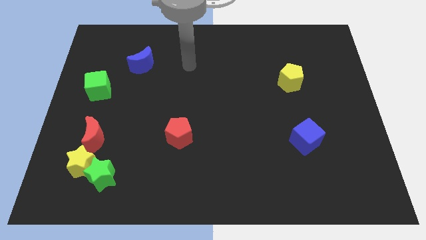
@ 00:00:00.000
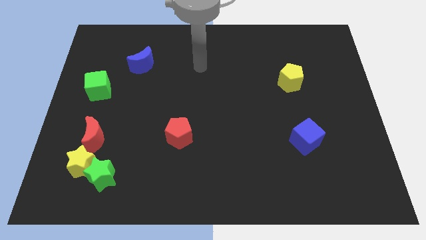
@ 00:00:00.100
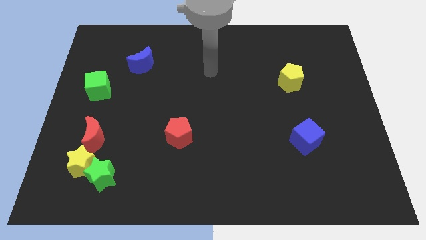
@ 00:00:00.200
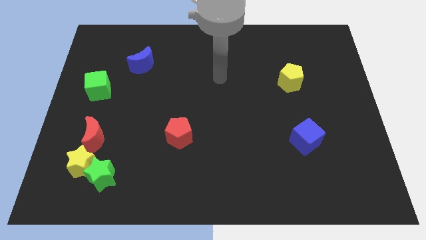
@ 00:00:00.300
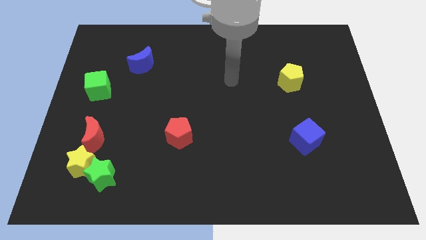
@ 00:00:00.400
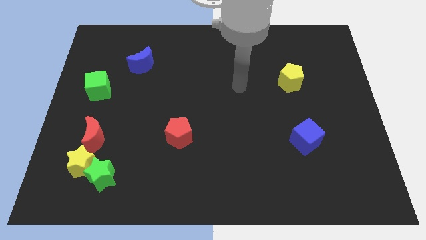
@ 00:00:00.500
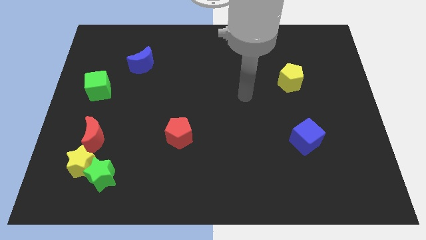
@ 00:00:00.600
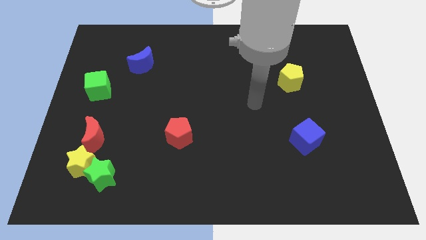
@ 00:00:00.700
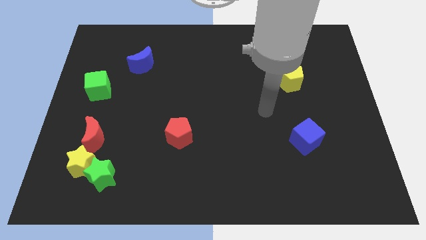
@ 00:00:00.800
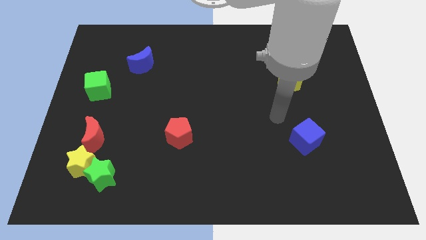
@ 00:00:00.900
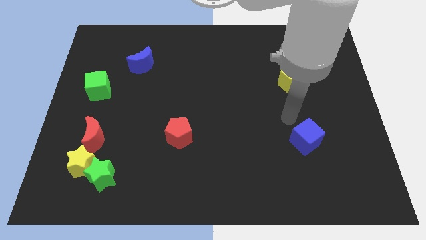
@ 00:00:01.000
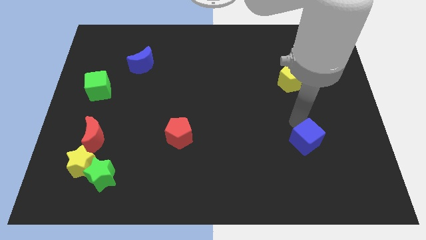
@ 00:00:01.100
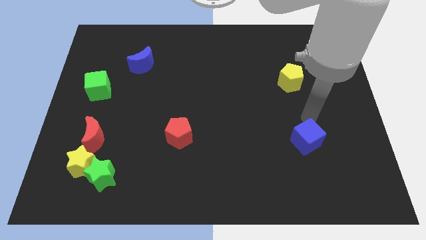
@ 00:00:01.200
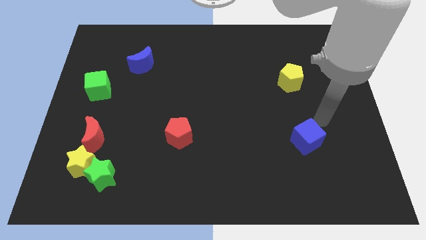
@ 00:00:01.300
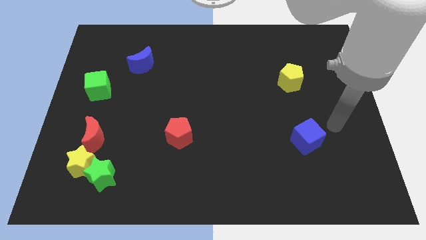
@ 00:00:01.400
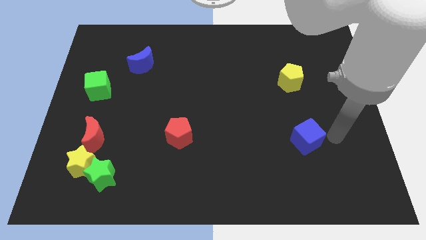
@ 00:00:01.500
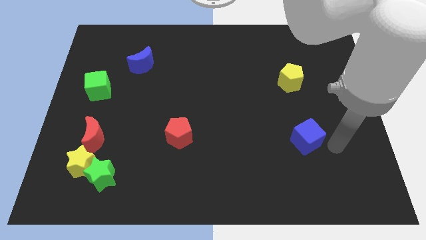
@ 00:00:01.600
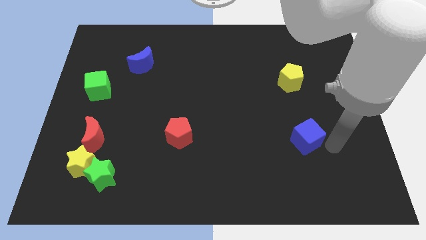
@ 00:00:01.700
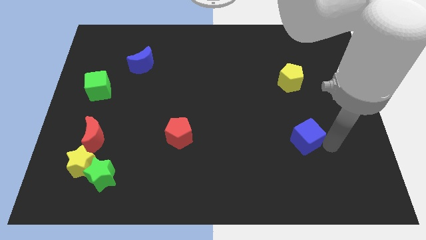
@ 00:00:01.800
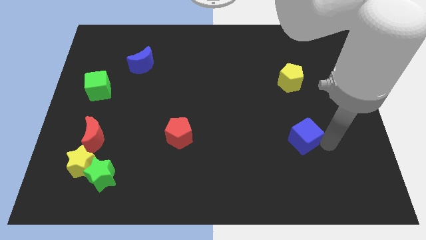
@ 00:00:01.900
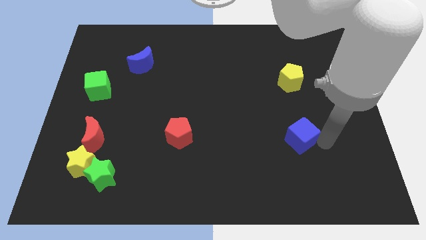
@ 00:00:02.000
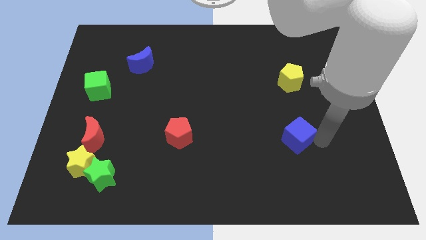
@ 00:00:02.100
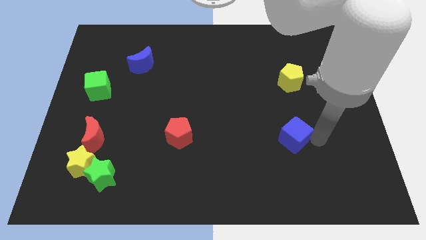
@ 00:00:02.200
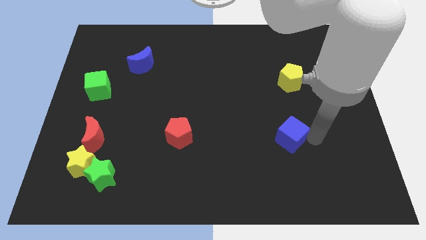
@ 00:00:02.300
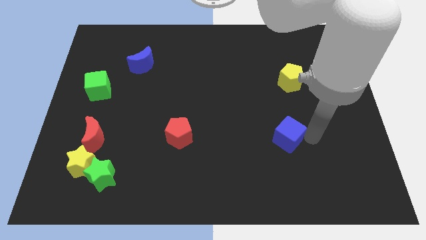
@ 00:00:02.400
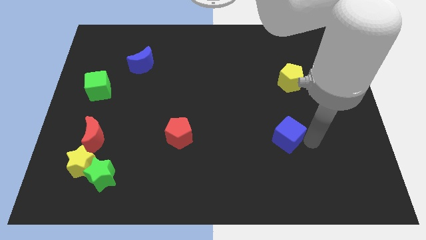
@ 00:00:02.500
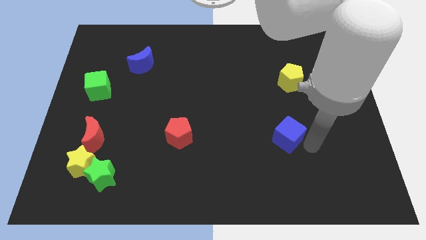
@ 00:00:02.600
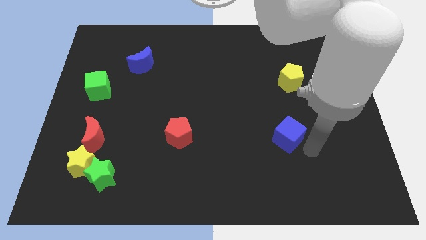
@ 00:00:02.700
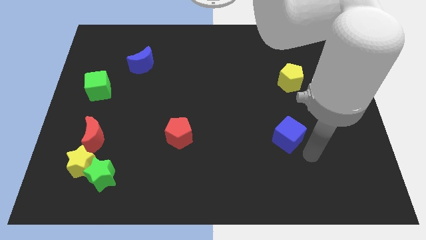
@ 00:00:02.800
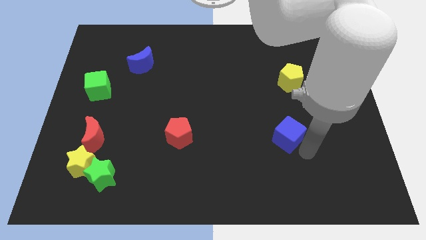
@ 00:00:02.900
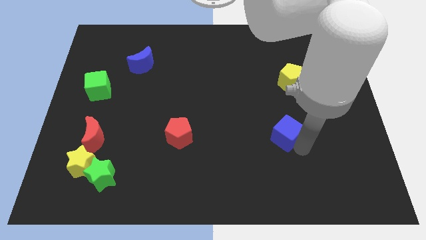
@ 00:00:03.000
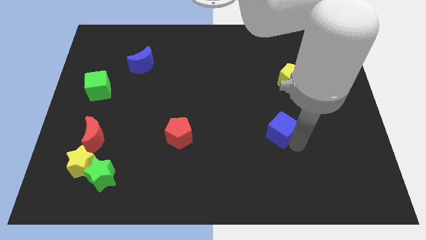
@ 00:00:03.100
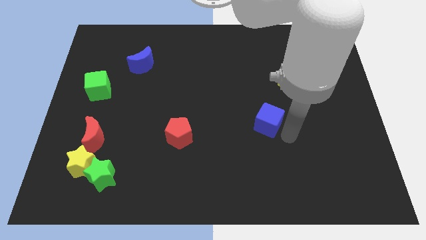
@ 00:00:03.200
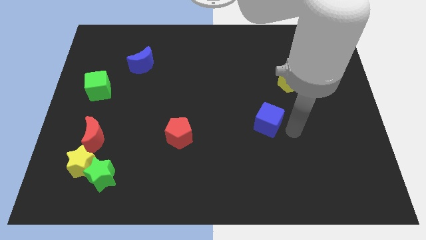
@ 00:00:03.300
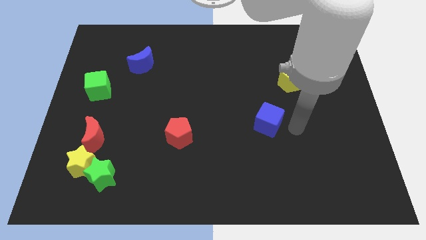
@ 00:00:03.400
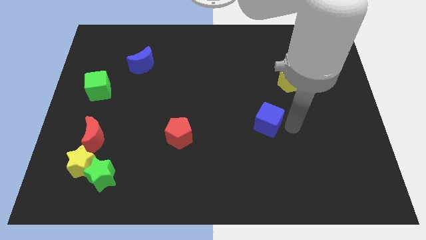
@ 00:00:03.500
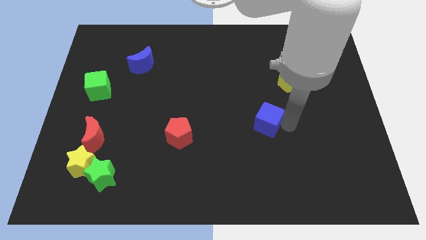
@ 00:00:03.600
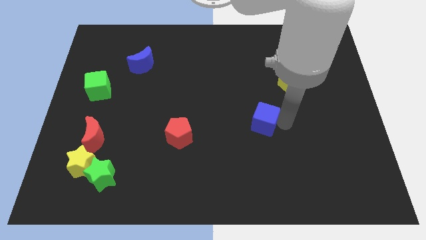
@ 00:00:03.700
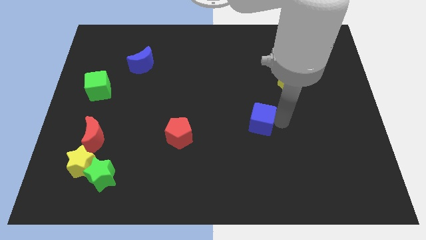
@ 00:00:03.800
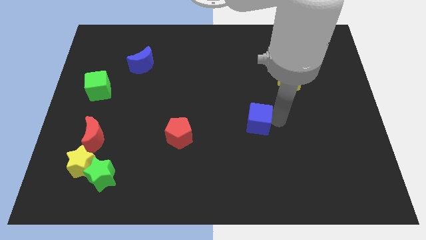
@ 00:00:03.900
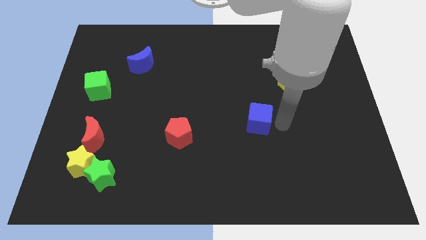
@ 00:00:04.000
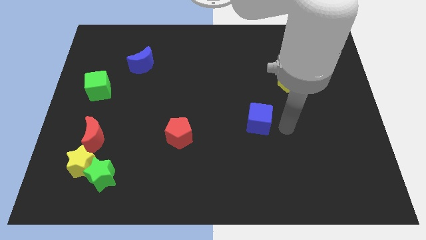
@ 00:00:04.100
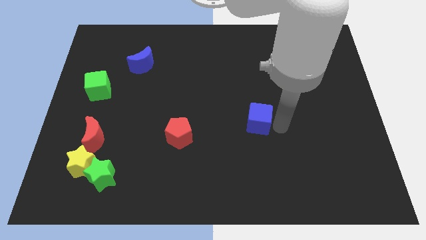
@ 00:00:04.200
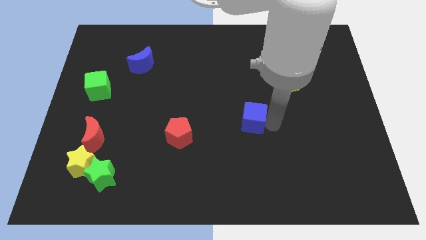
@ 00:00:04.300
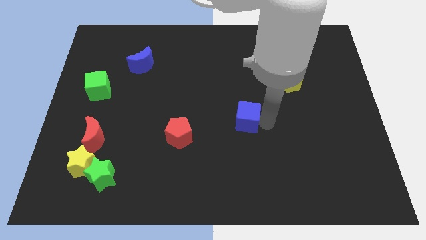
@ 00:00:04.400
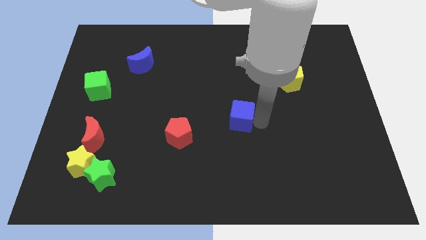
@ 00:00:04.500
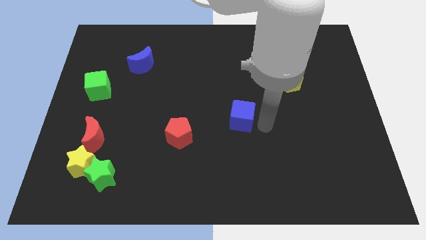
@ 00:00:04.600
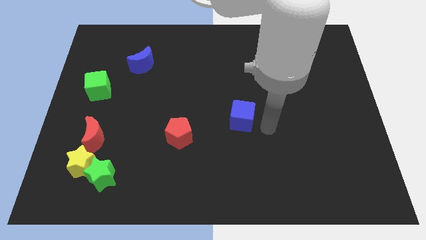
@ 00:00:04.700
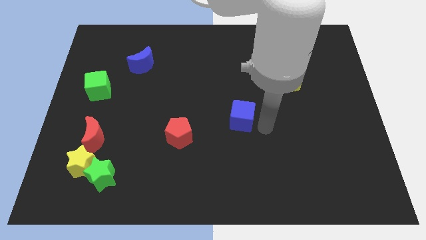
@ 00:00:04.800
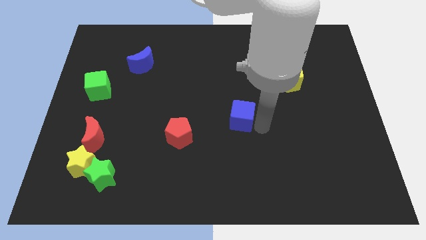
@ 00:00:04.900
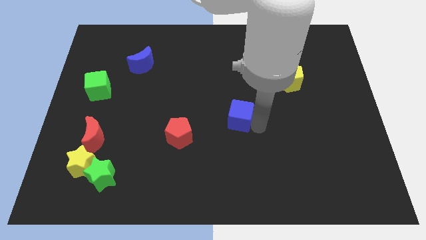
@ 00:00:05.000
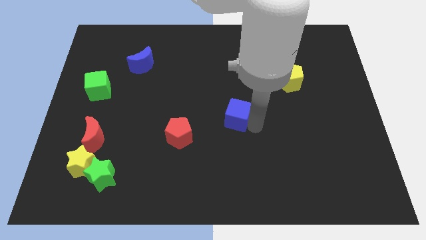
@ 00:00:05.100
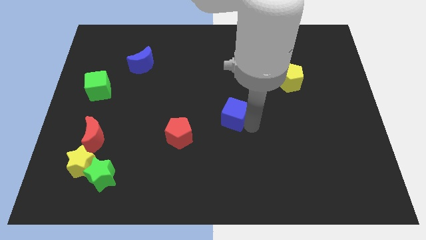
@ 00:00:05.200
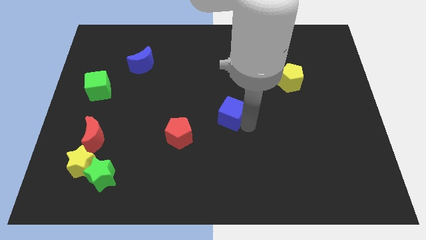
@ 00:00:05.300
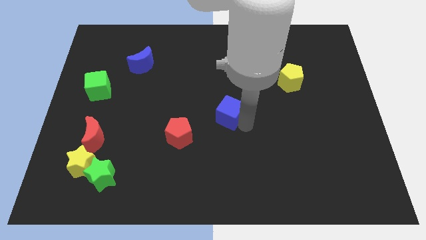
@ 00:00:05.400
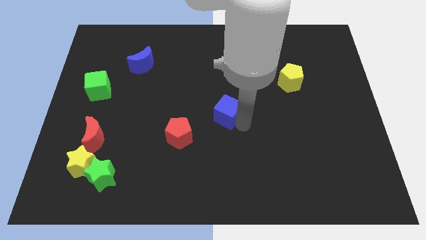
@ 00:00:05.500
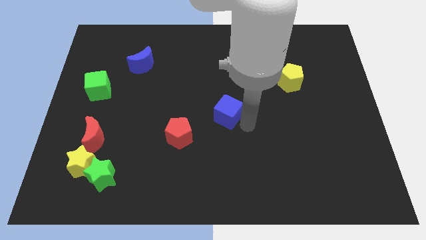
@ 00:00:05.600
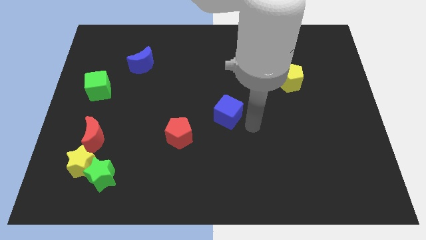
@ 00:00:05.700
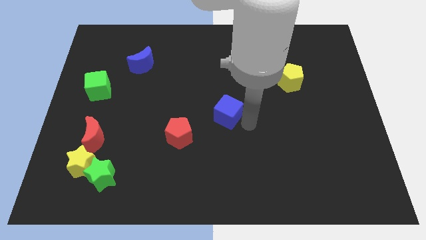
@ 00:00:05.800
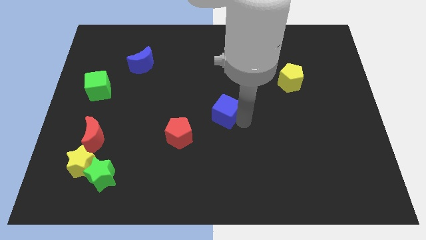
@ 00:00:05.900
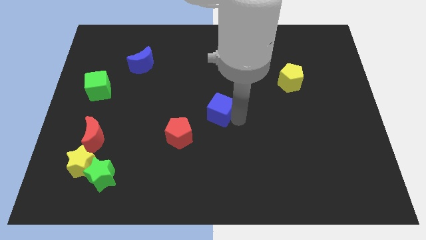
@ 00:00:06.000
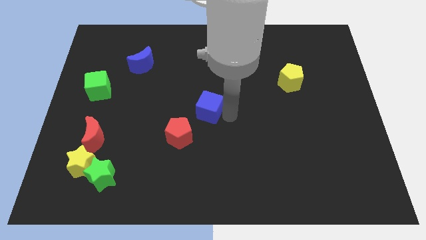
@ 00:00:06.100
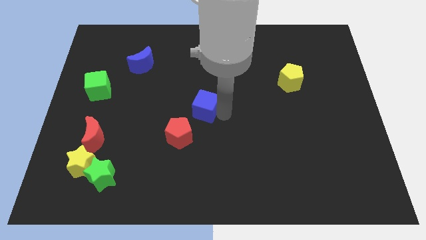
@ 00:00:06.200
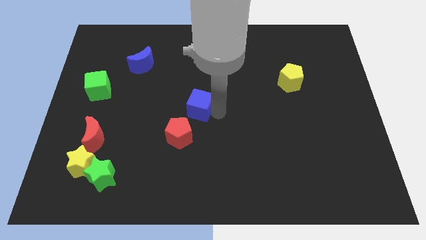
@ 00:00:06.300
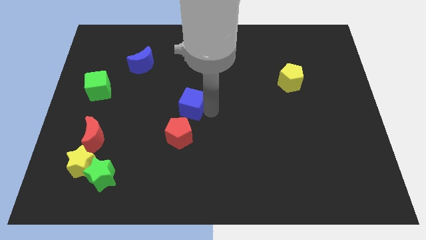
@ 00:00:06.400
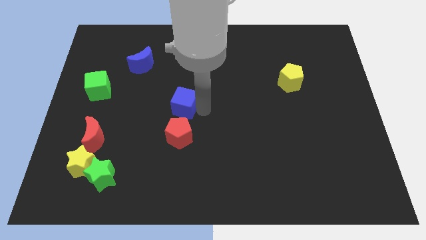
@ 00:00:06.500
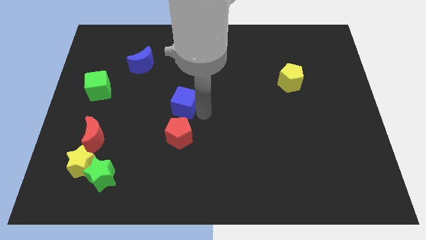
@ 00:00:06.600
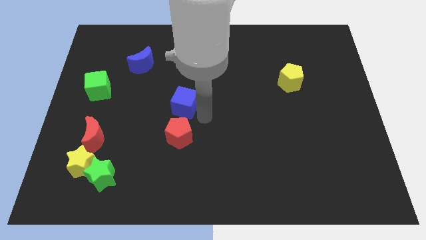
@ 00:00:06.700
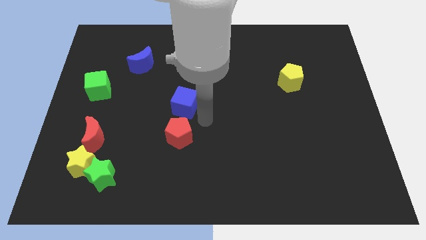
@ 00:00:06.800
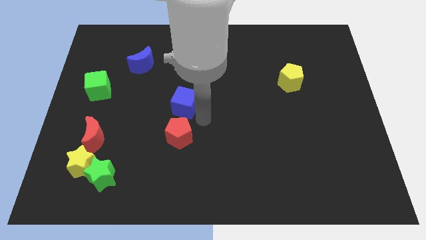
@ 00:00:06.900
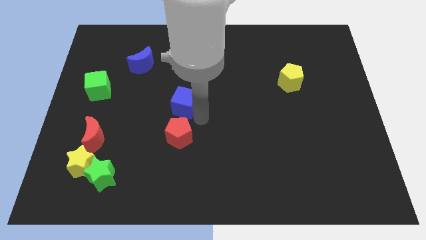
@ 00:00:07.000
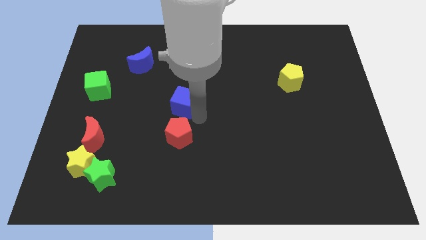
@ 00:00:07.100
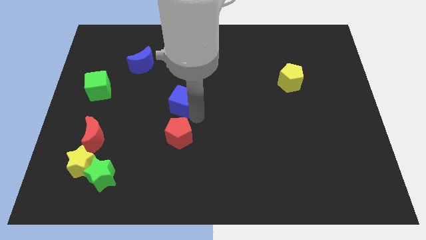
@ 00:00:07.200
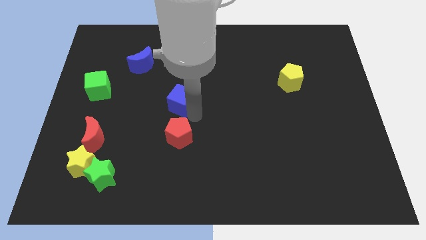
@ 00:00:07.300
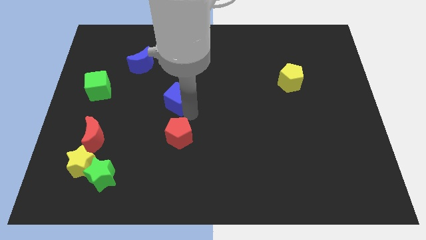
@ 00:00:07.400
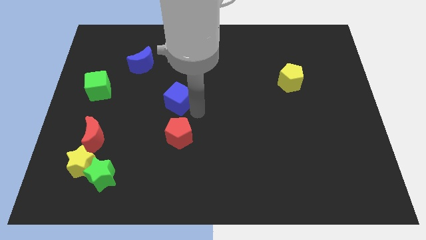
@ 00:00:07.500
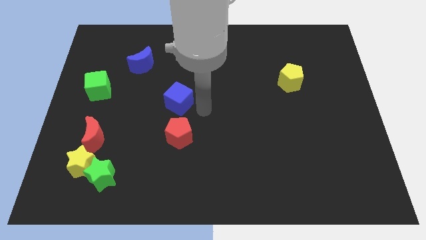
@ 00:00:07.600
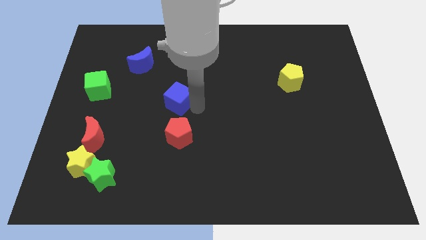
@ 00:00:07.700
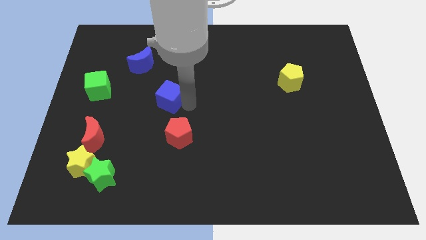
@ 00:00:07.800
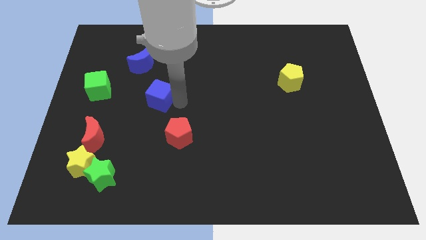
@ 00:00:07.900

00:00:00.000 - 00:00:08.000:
slide the blue cube right of the green cube
